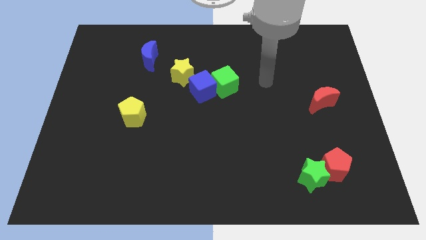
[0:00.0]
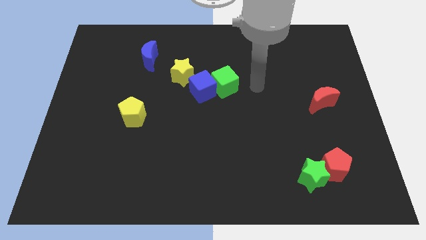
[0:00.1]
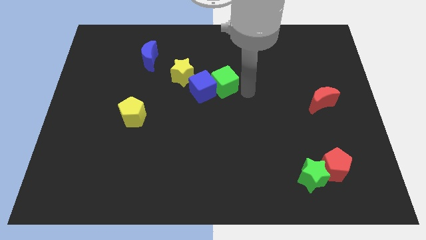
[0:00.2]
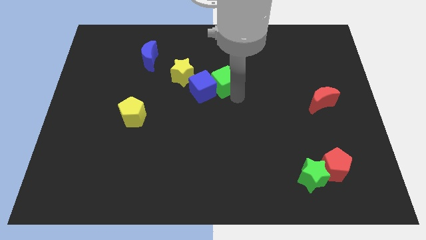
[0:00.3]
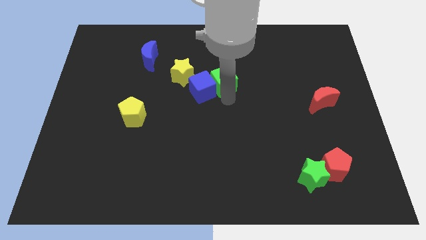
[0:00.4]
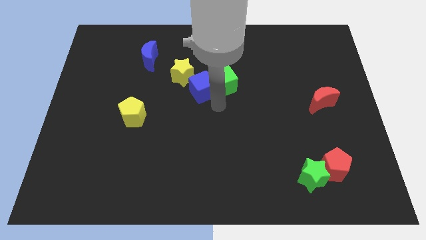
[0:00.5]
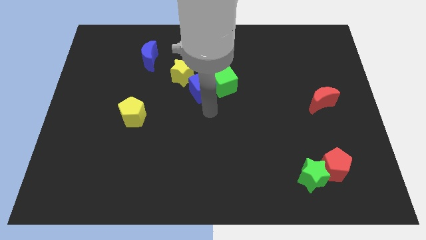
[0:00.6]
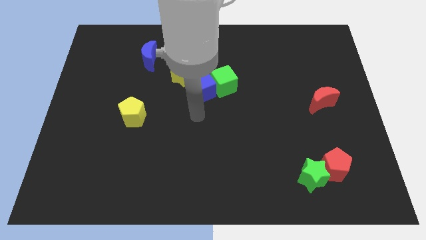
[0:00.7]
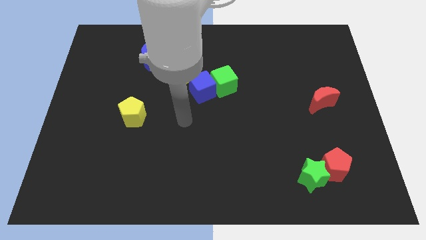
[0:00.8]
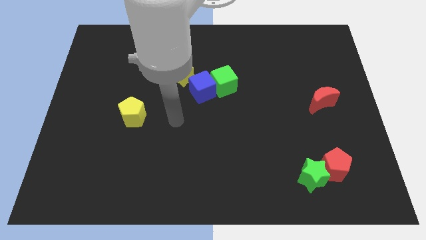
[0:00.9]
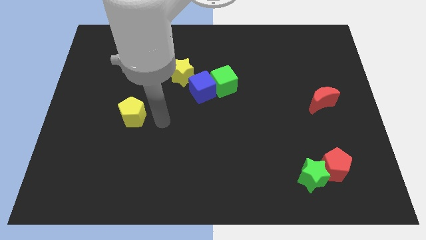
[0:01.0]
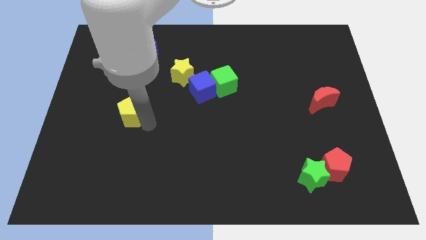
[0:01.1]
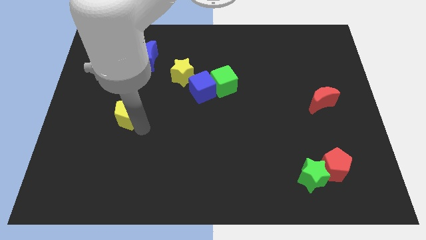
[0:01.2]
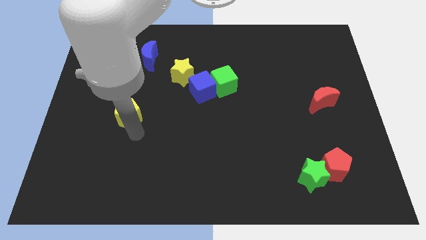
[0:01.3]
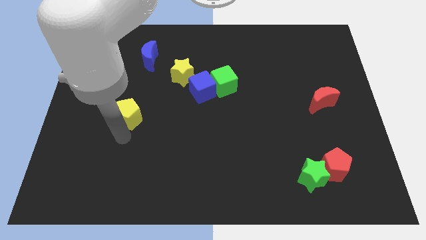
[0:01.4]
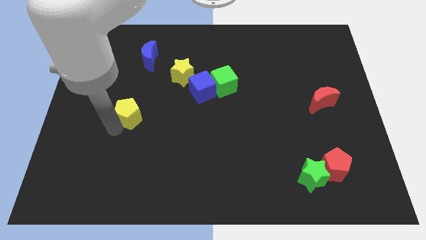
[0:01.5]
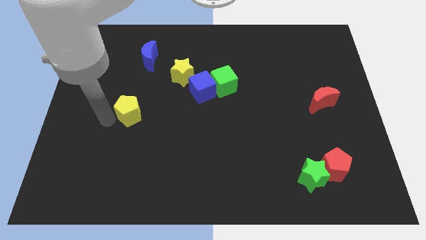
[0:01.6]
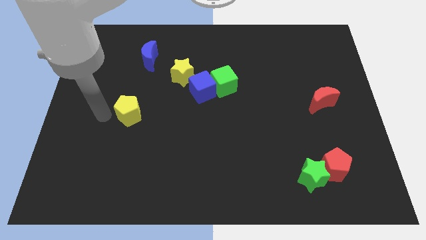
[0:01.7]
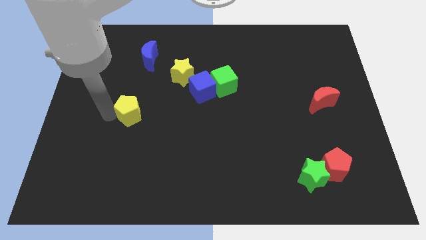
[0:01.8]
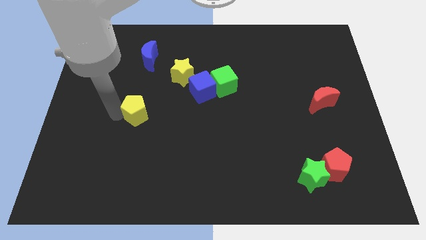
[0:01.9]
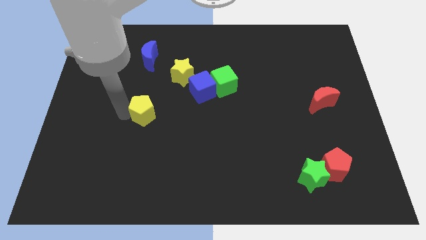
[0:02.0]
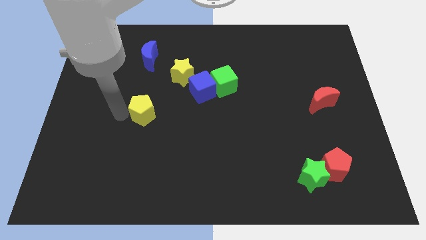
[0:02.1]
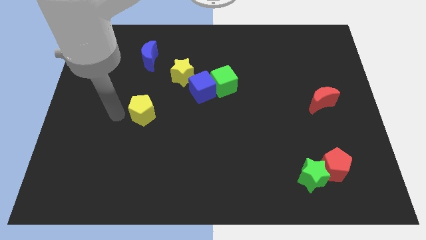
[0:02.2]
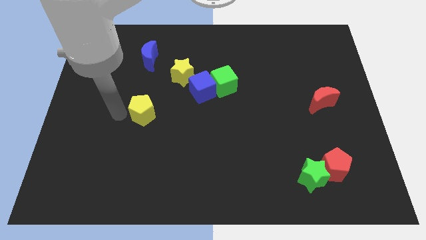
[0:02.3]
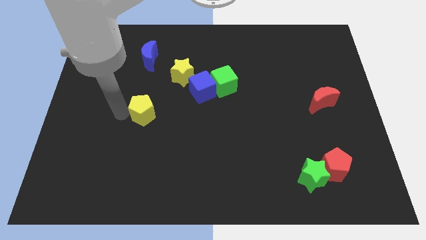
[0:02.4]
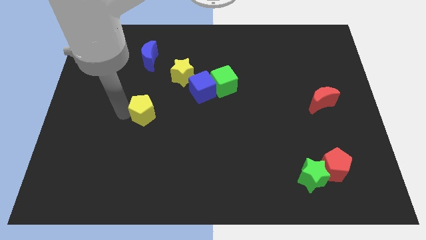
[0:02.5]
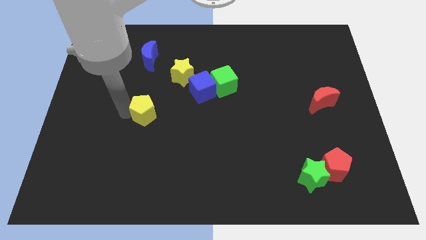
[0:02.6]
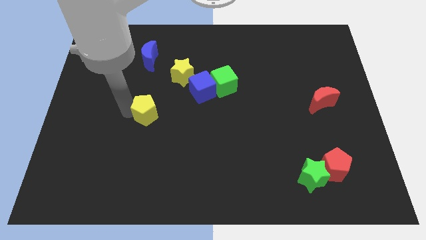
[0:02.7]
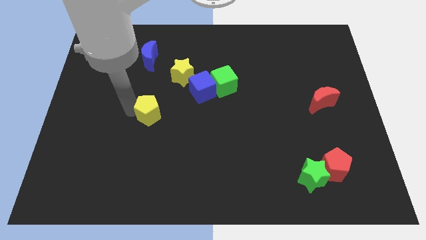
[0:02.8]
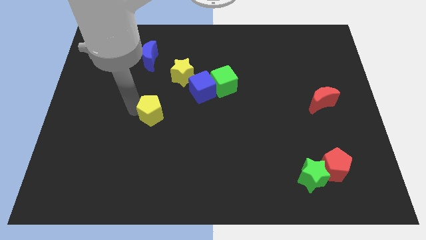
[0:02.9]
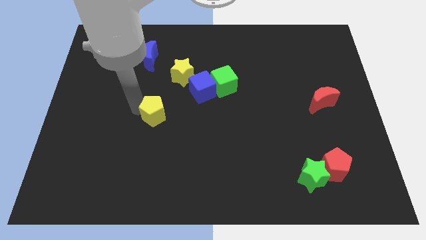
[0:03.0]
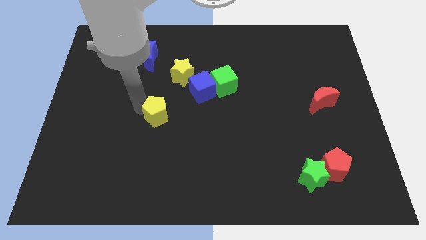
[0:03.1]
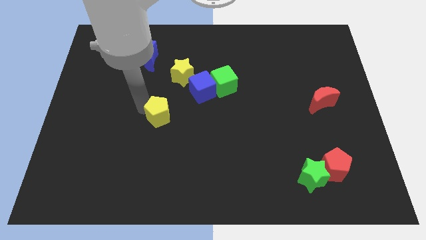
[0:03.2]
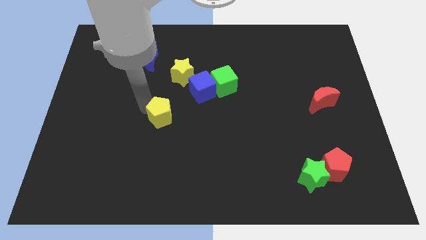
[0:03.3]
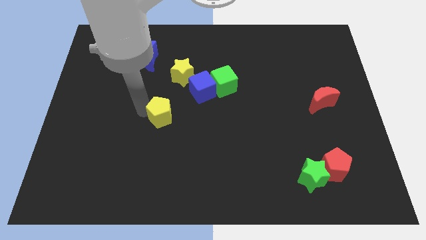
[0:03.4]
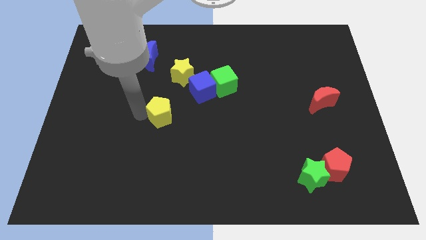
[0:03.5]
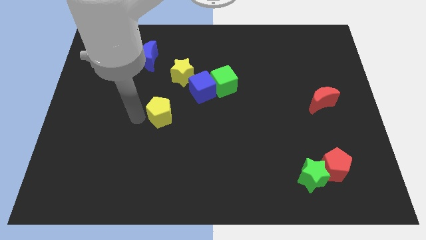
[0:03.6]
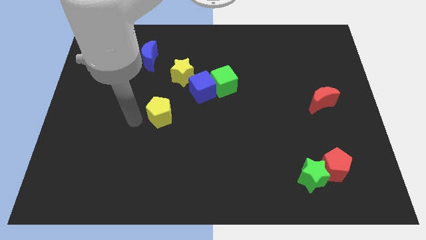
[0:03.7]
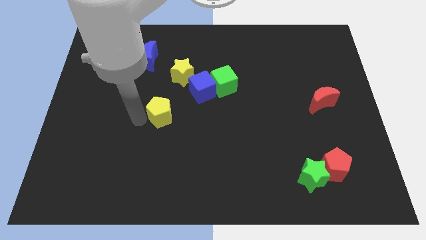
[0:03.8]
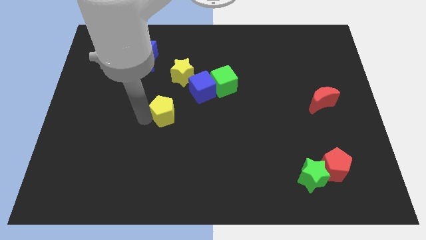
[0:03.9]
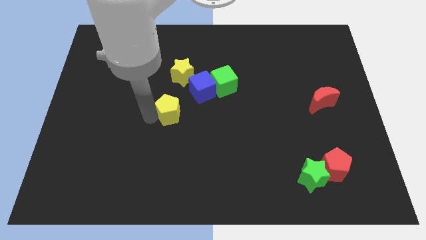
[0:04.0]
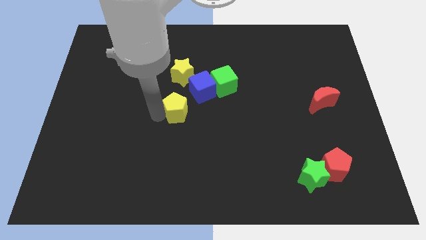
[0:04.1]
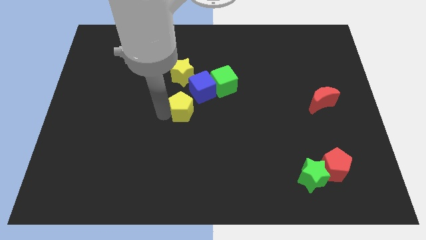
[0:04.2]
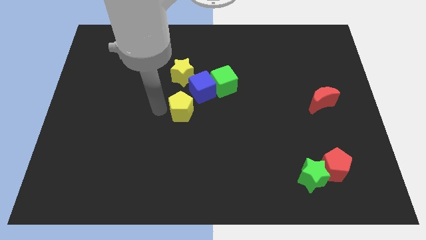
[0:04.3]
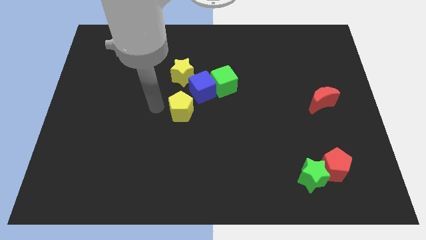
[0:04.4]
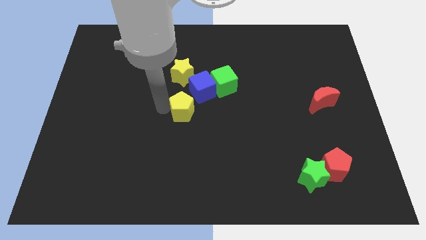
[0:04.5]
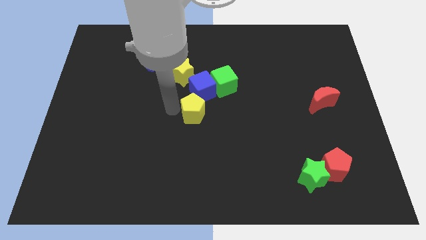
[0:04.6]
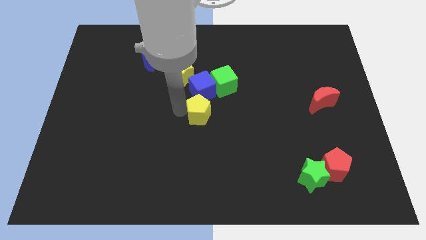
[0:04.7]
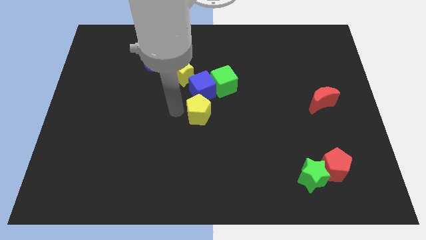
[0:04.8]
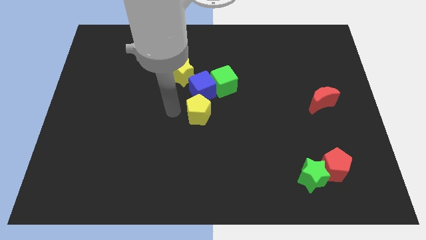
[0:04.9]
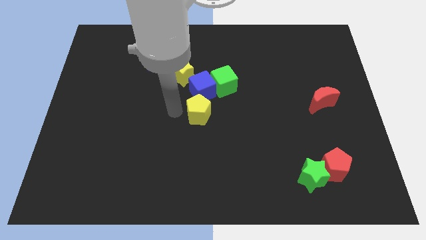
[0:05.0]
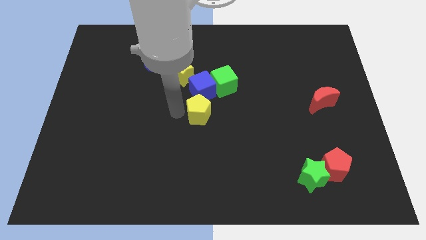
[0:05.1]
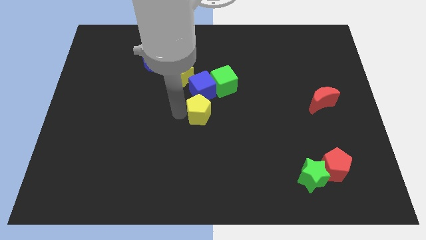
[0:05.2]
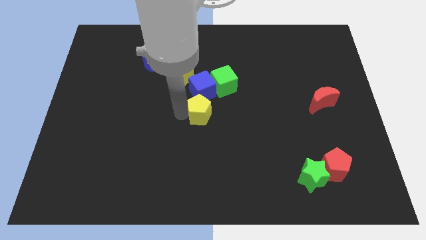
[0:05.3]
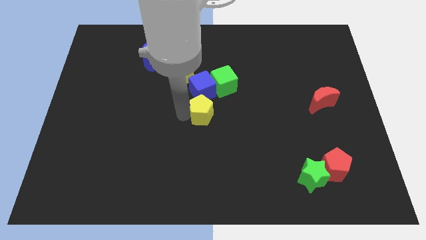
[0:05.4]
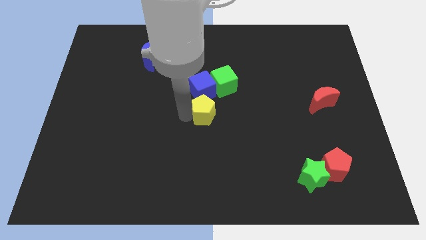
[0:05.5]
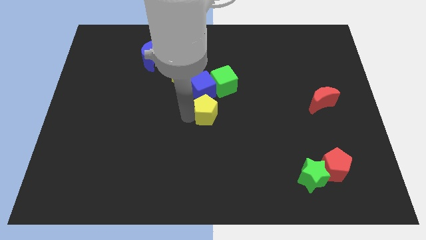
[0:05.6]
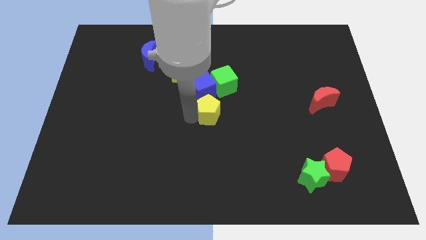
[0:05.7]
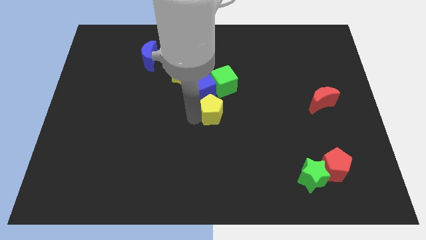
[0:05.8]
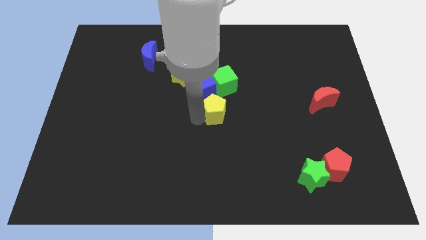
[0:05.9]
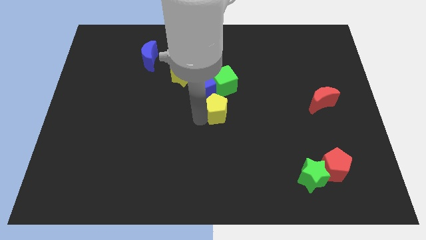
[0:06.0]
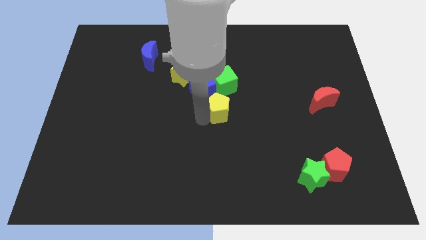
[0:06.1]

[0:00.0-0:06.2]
slide the yellow pentagon to the right

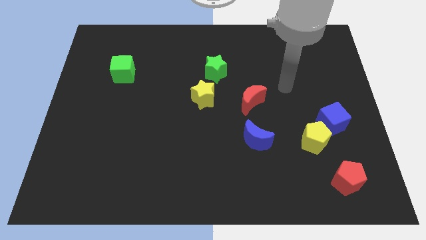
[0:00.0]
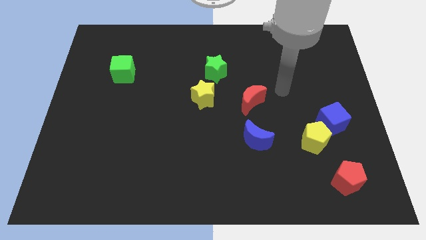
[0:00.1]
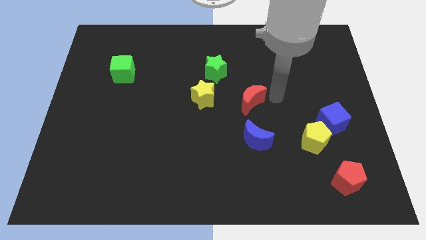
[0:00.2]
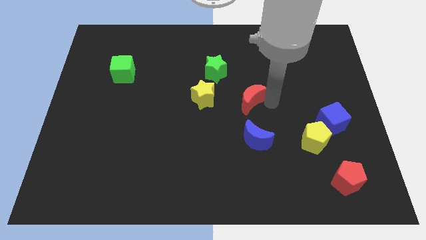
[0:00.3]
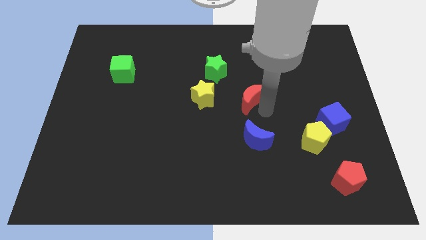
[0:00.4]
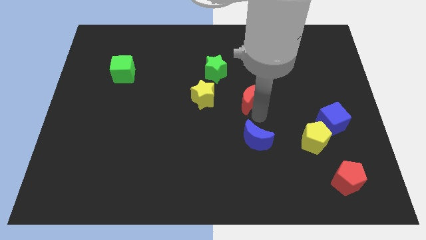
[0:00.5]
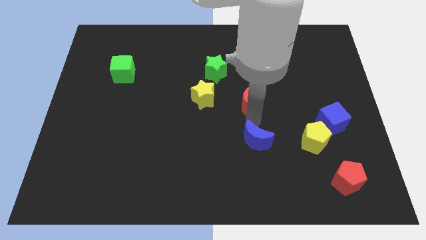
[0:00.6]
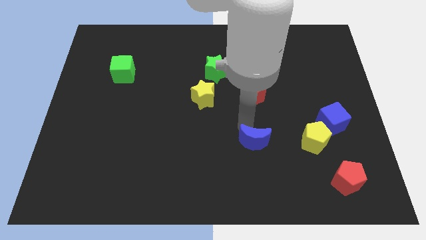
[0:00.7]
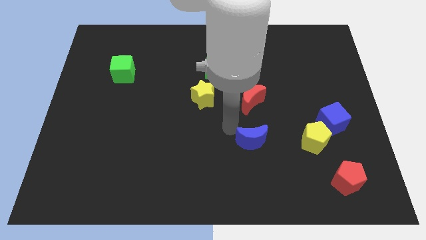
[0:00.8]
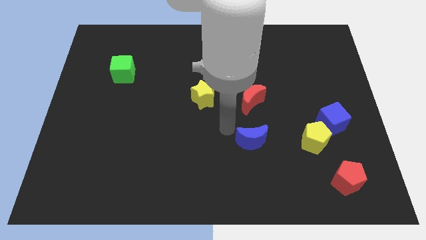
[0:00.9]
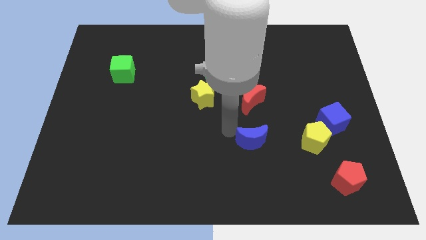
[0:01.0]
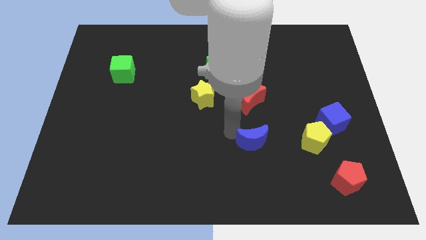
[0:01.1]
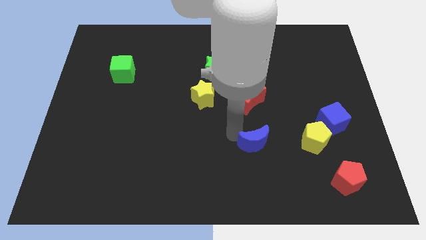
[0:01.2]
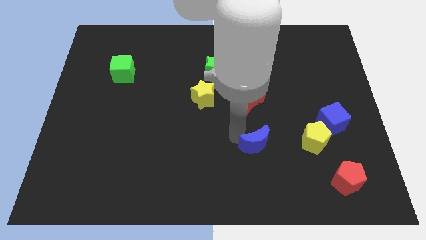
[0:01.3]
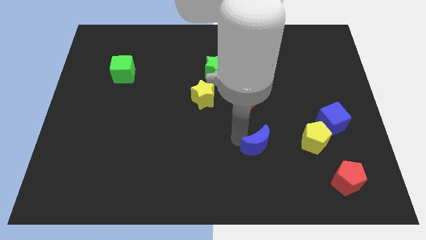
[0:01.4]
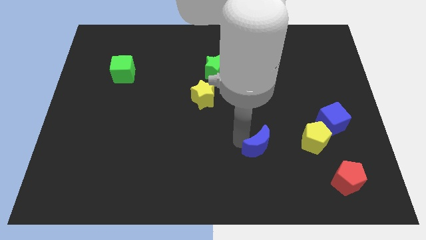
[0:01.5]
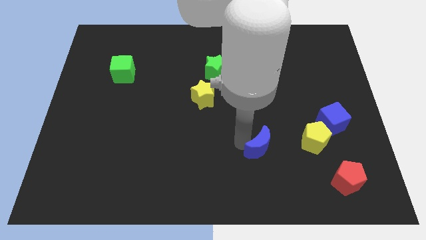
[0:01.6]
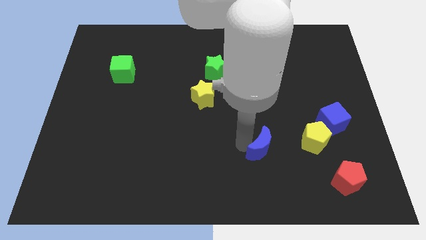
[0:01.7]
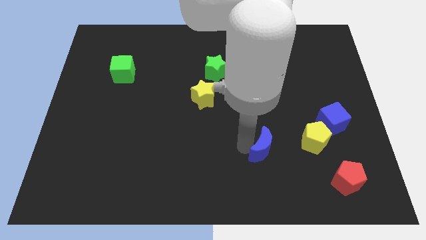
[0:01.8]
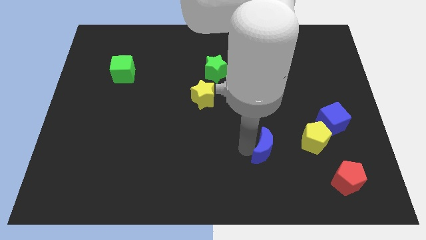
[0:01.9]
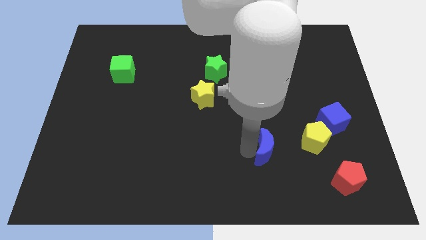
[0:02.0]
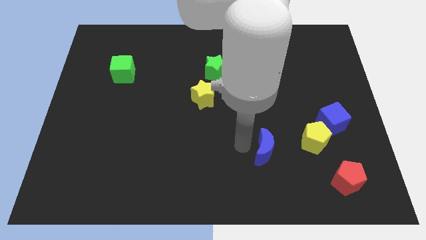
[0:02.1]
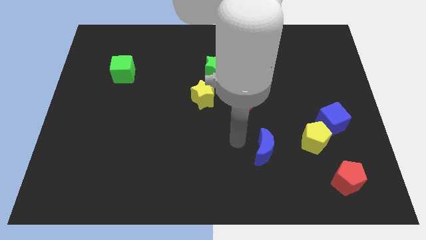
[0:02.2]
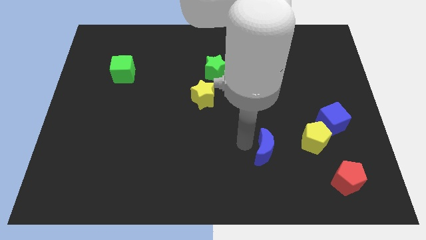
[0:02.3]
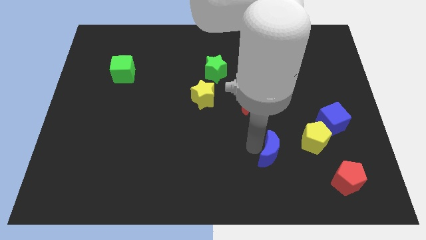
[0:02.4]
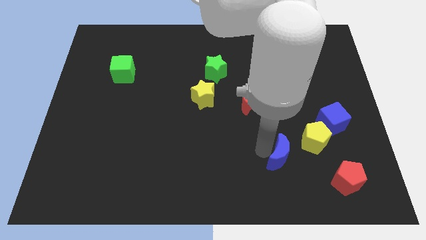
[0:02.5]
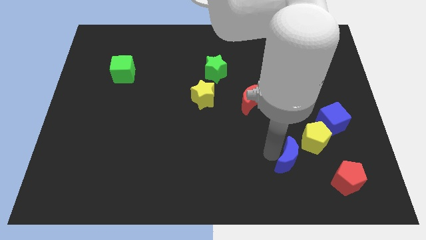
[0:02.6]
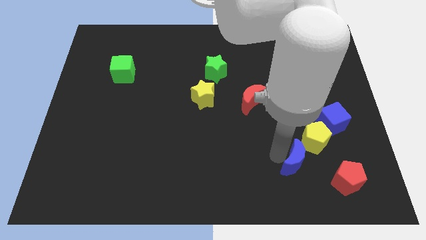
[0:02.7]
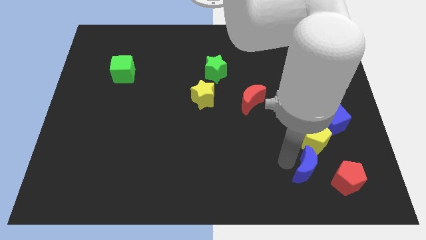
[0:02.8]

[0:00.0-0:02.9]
push the blue moon to the right a little
